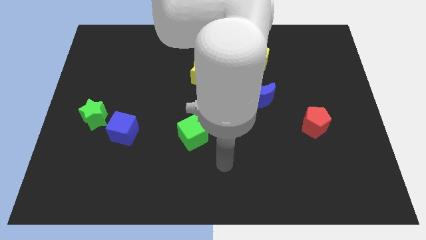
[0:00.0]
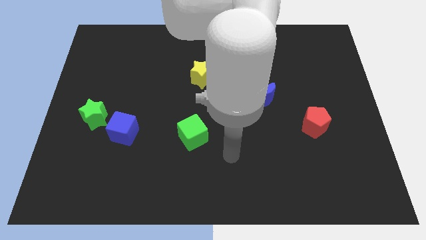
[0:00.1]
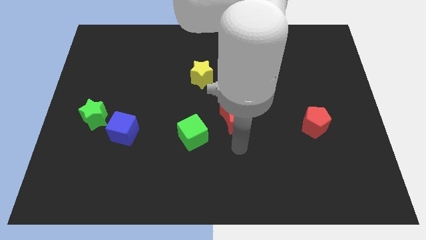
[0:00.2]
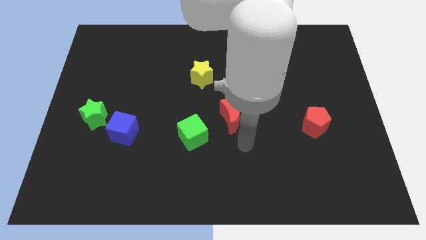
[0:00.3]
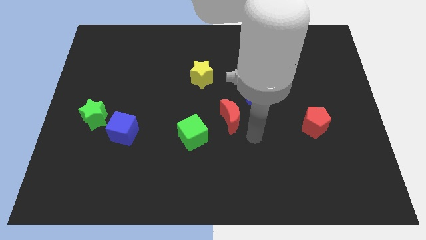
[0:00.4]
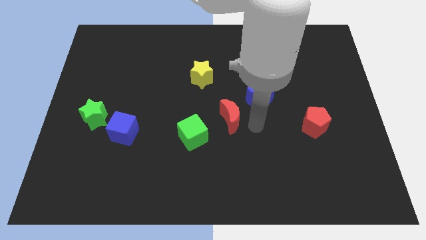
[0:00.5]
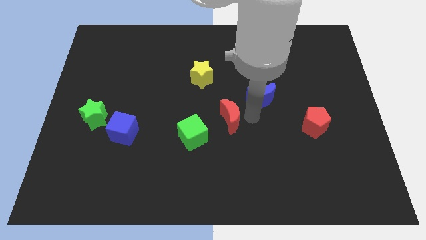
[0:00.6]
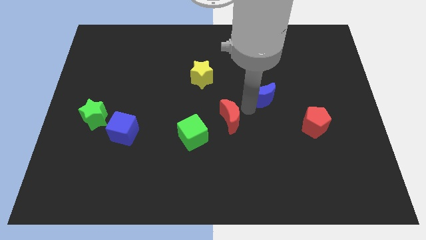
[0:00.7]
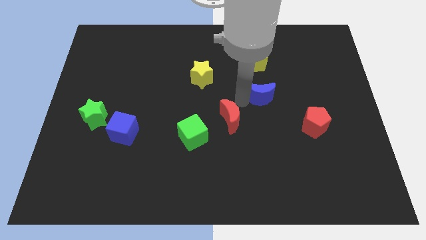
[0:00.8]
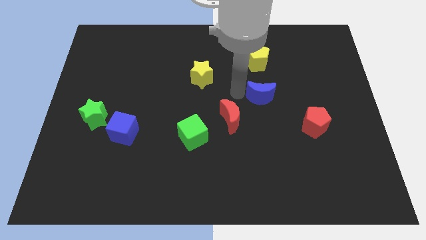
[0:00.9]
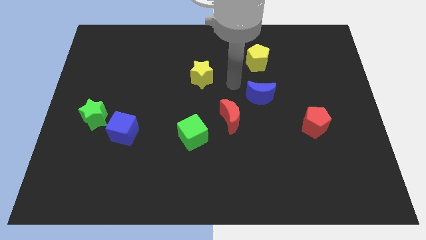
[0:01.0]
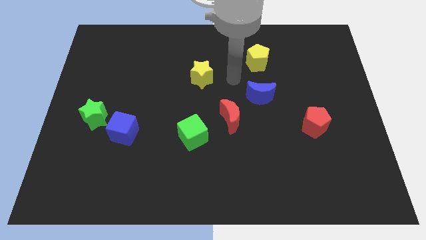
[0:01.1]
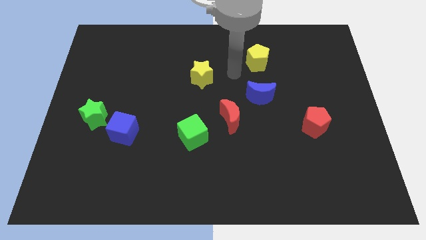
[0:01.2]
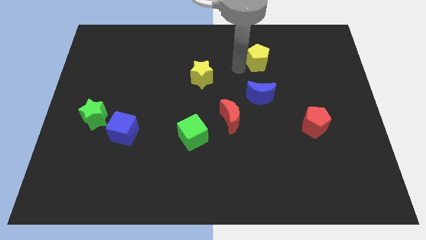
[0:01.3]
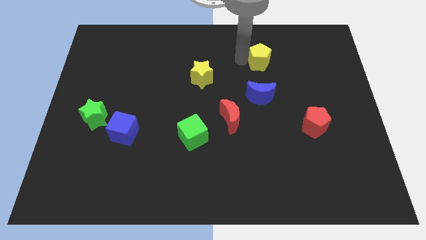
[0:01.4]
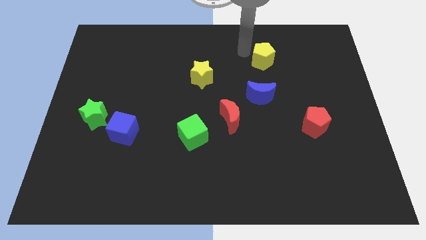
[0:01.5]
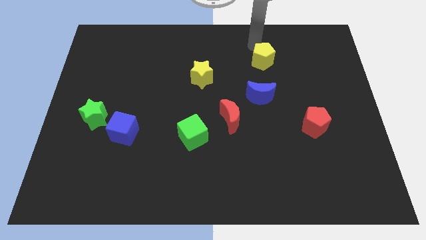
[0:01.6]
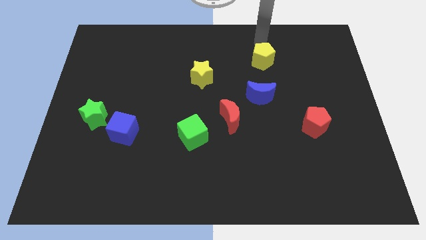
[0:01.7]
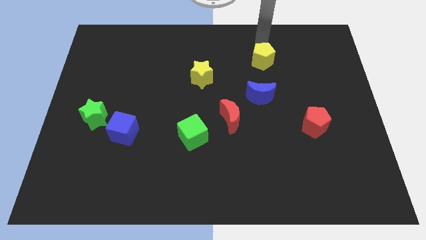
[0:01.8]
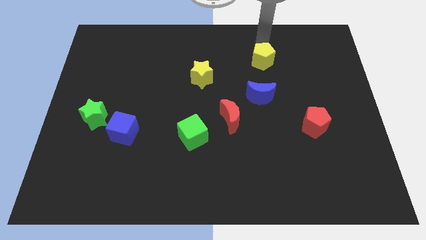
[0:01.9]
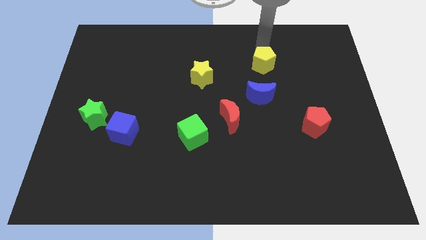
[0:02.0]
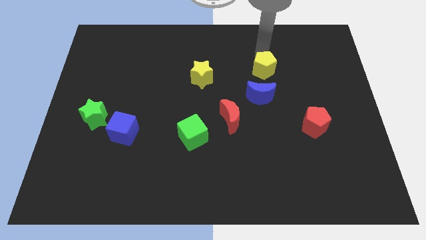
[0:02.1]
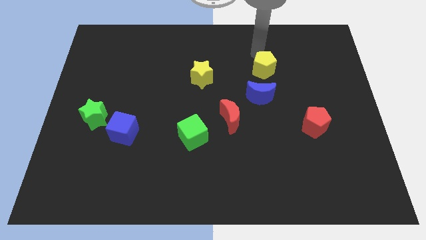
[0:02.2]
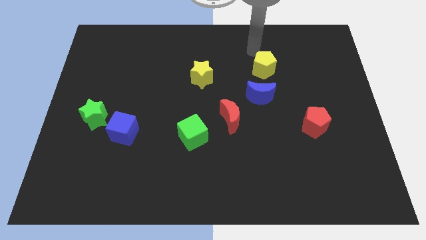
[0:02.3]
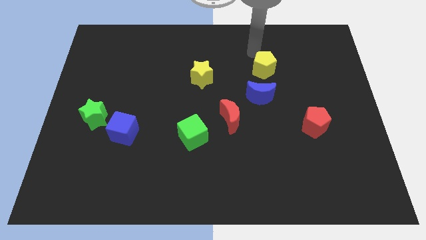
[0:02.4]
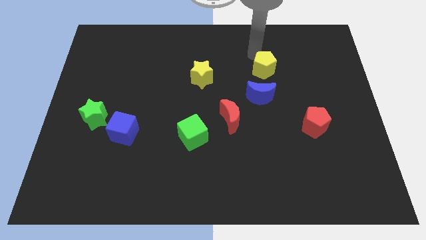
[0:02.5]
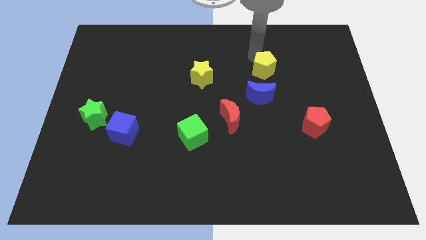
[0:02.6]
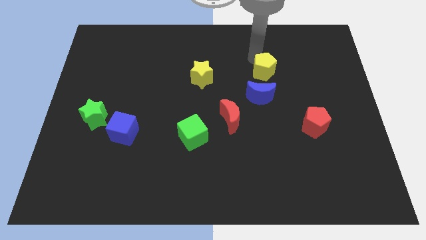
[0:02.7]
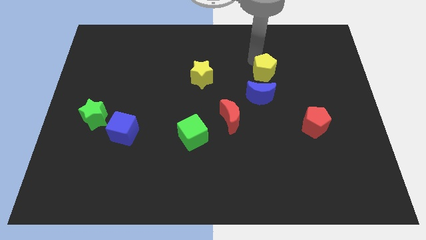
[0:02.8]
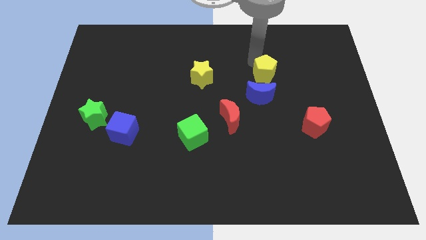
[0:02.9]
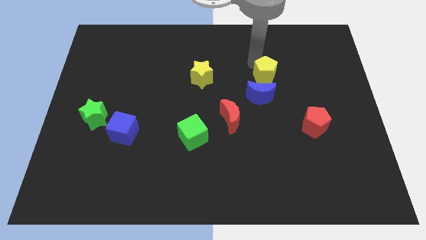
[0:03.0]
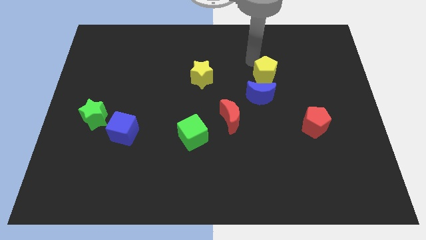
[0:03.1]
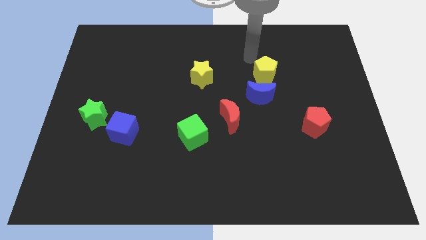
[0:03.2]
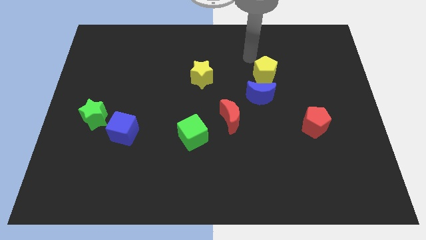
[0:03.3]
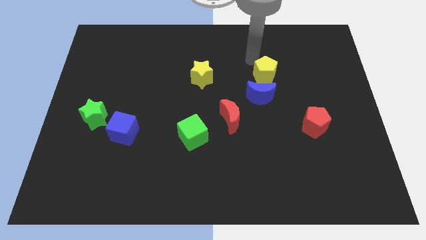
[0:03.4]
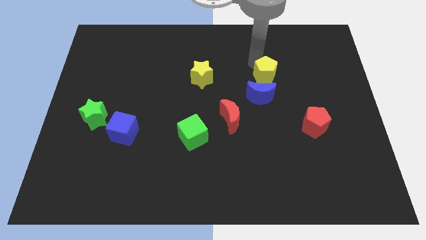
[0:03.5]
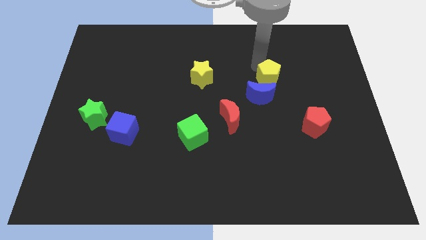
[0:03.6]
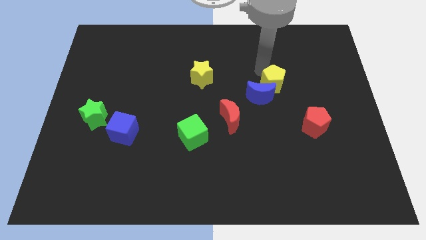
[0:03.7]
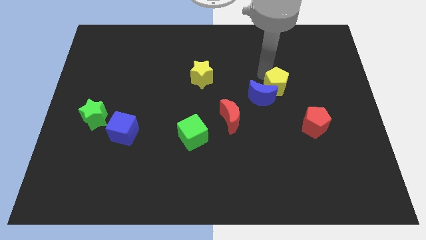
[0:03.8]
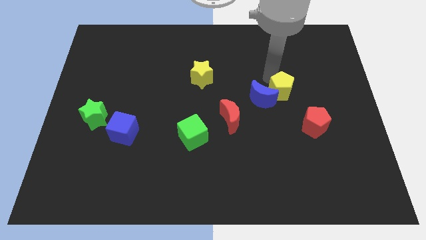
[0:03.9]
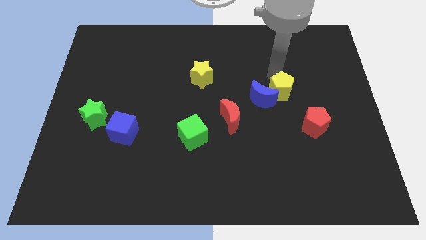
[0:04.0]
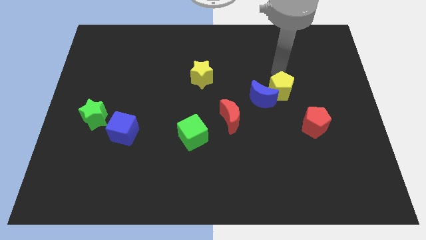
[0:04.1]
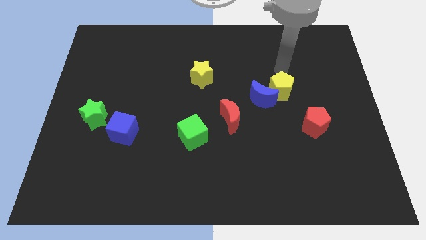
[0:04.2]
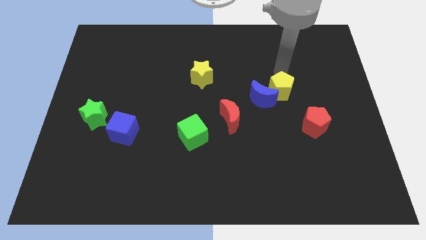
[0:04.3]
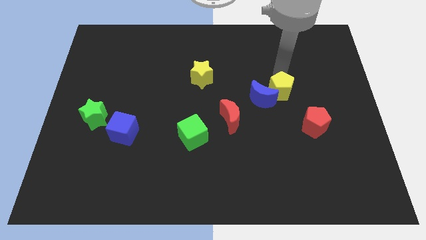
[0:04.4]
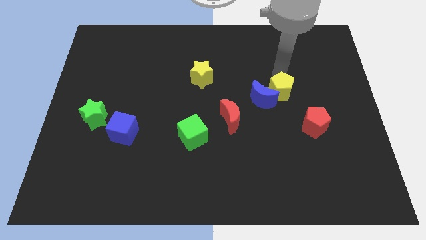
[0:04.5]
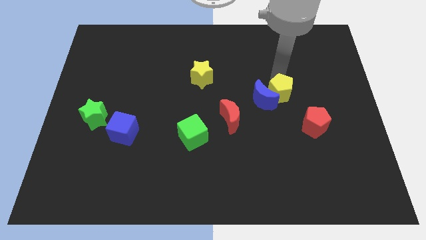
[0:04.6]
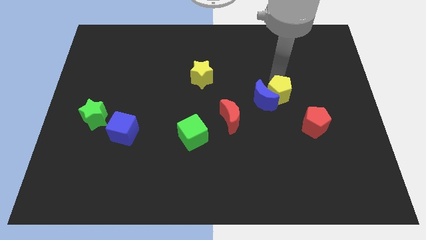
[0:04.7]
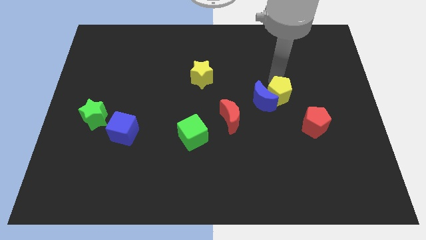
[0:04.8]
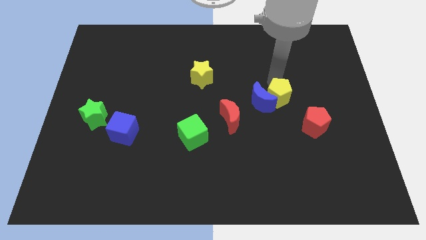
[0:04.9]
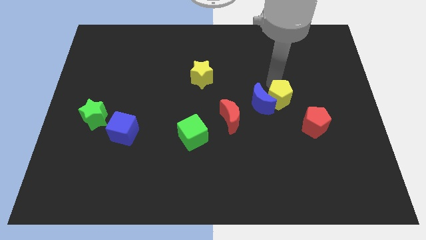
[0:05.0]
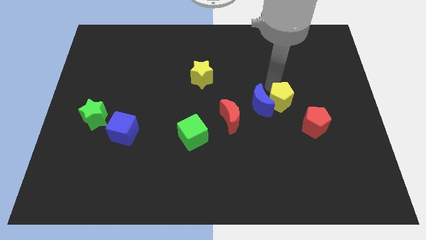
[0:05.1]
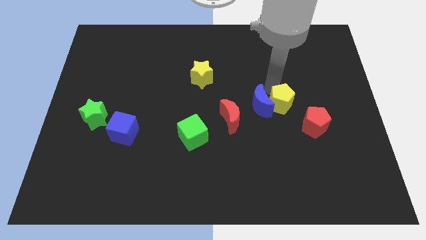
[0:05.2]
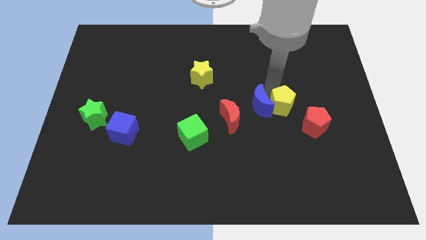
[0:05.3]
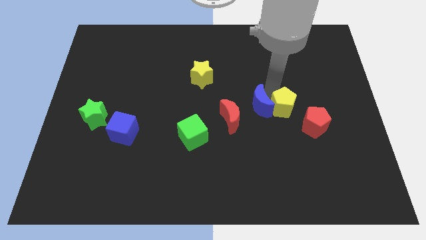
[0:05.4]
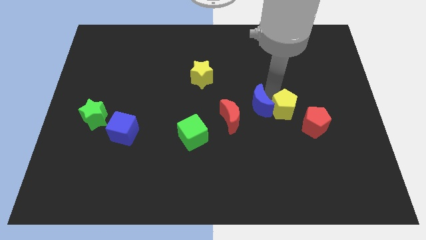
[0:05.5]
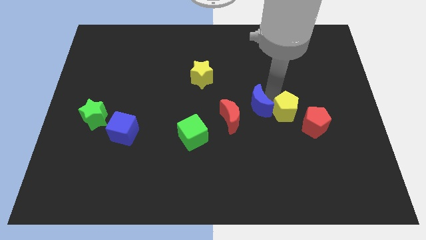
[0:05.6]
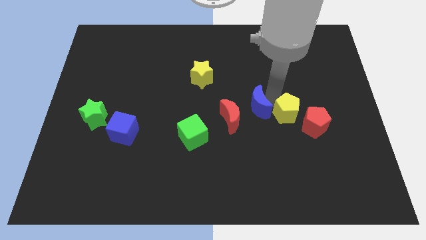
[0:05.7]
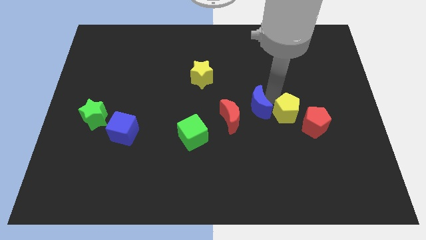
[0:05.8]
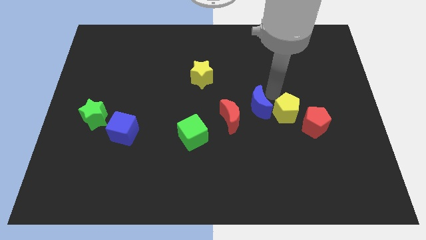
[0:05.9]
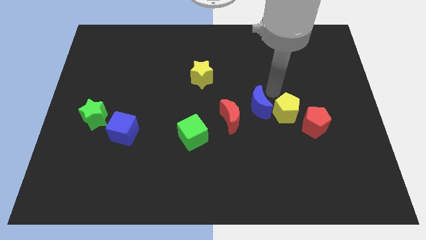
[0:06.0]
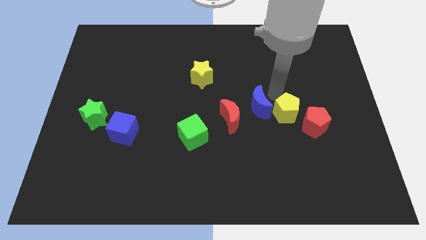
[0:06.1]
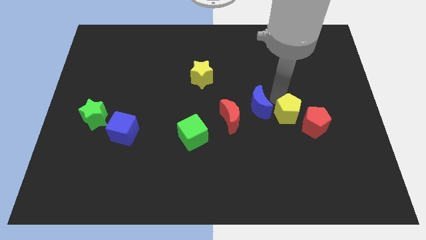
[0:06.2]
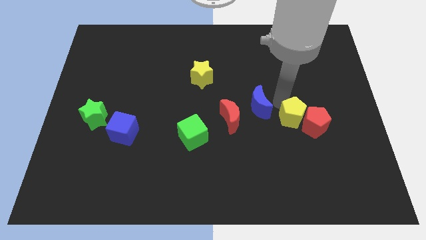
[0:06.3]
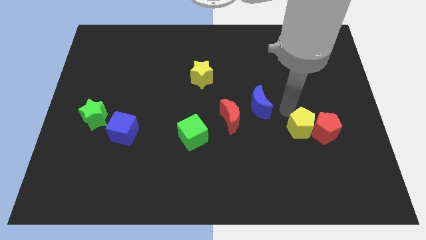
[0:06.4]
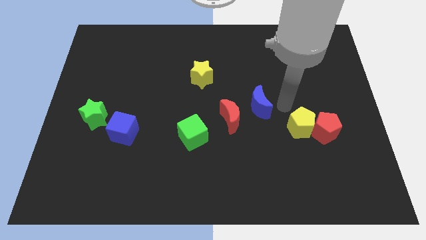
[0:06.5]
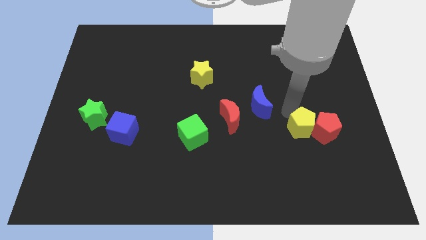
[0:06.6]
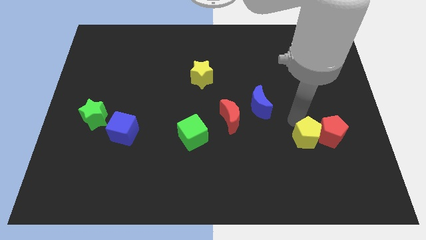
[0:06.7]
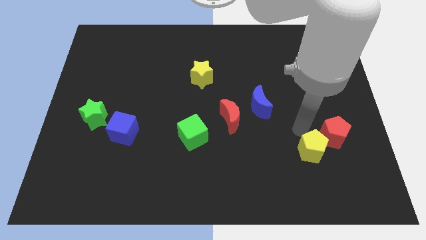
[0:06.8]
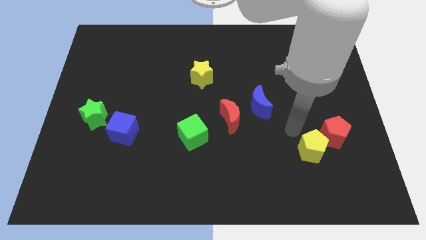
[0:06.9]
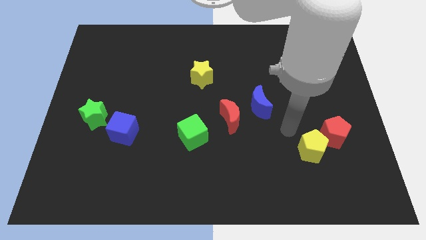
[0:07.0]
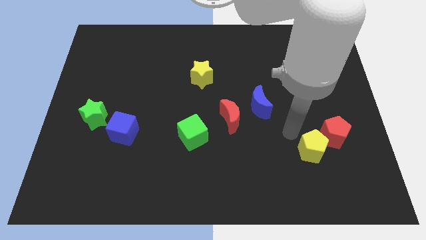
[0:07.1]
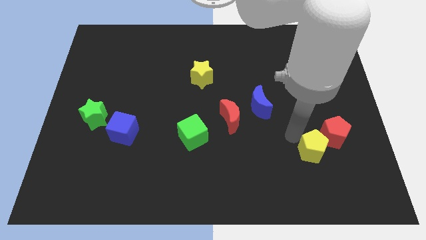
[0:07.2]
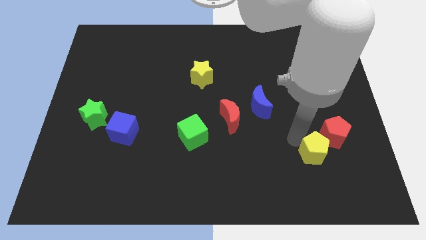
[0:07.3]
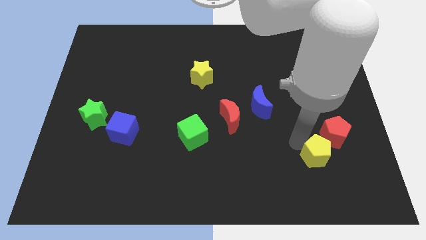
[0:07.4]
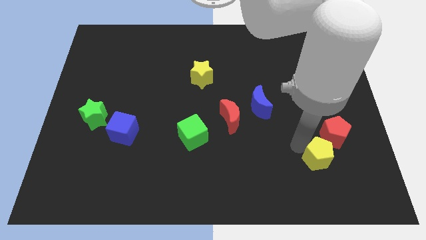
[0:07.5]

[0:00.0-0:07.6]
put the yellow pentagon below the red pentagon
